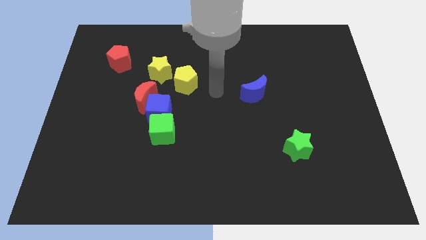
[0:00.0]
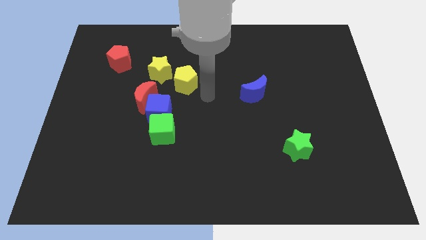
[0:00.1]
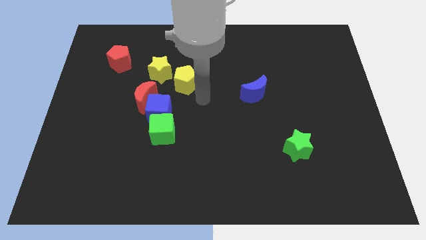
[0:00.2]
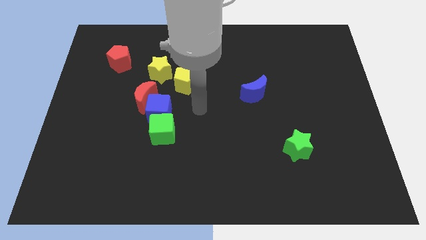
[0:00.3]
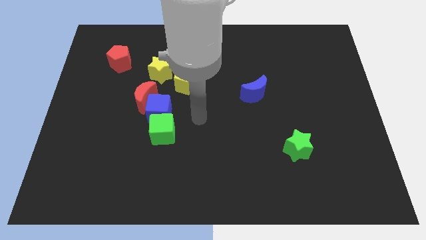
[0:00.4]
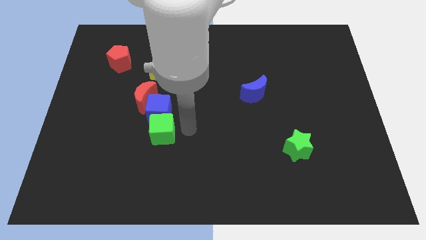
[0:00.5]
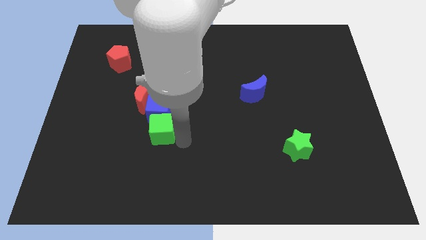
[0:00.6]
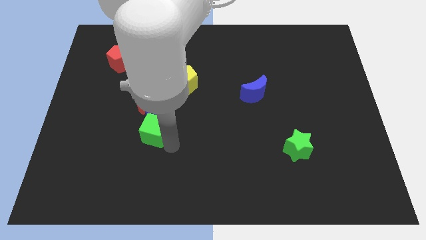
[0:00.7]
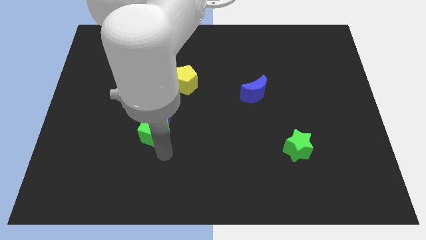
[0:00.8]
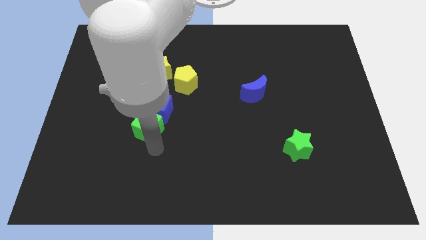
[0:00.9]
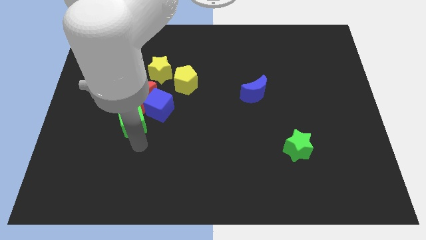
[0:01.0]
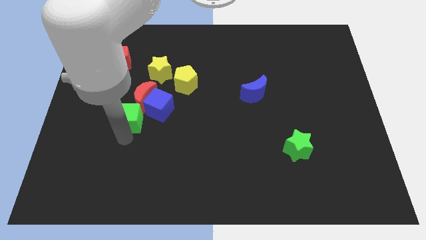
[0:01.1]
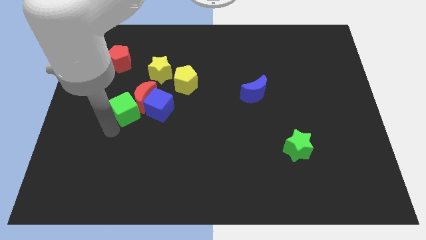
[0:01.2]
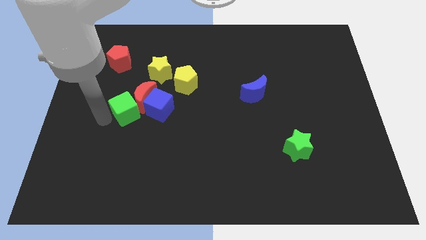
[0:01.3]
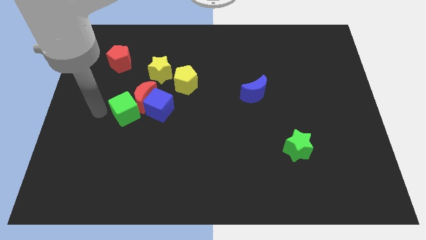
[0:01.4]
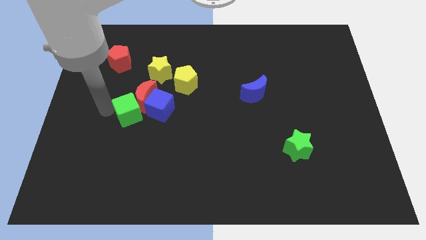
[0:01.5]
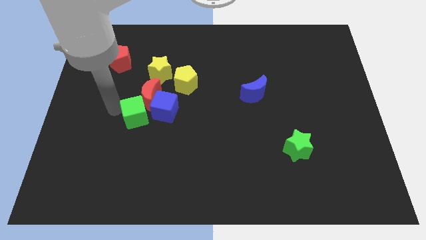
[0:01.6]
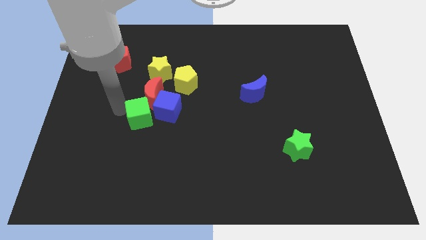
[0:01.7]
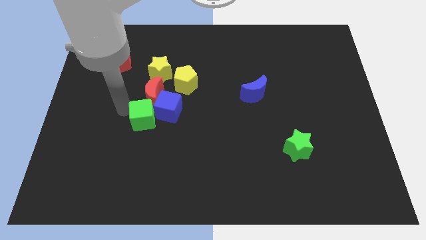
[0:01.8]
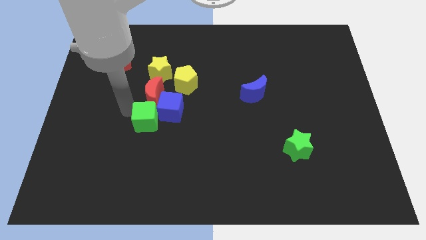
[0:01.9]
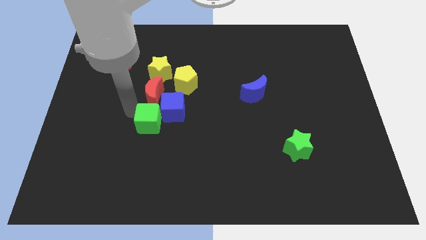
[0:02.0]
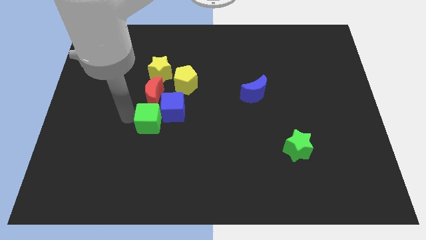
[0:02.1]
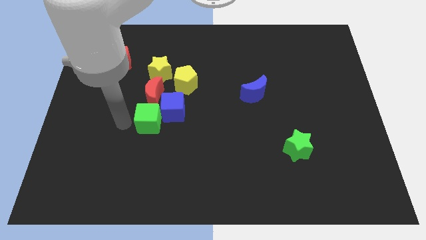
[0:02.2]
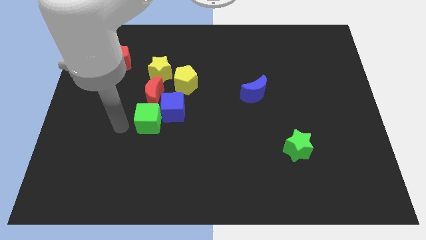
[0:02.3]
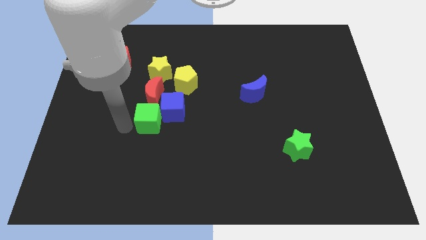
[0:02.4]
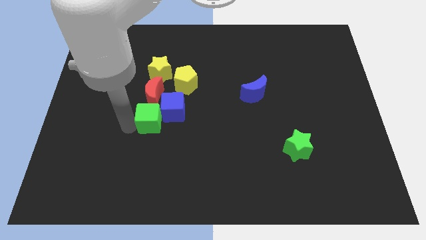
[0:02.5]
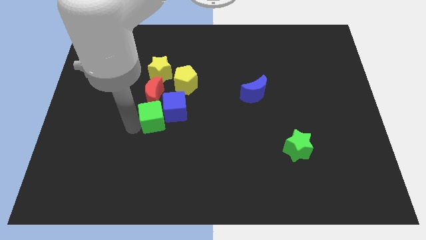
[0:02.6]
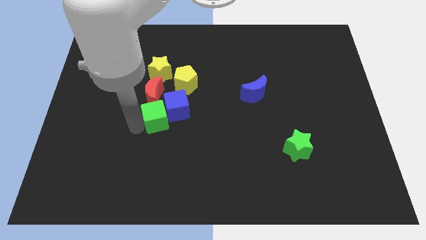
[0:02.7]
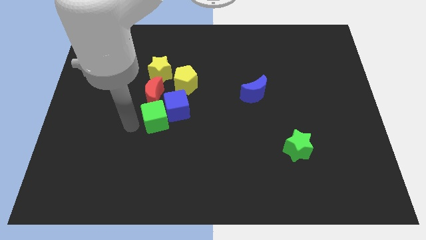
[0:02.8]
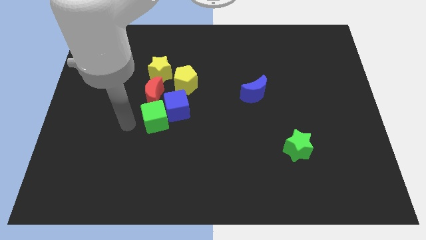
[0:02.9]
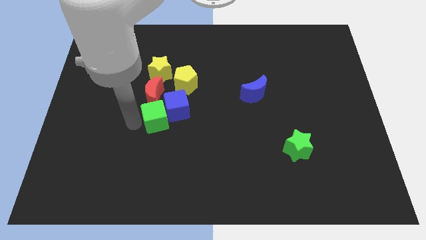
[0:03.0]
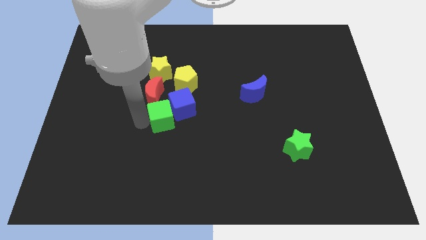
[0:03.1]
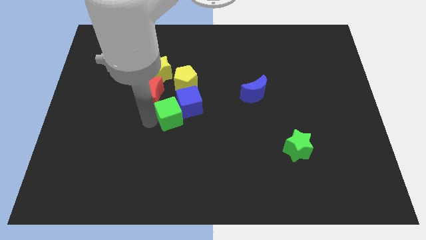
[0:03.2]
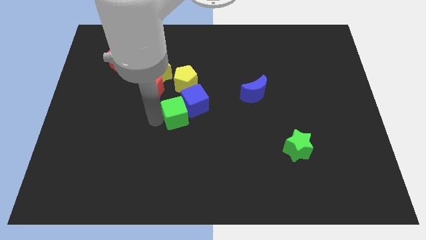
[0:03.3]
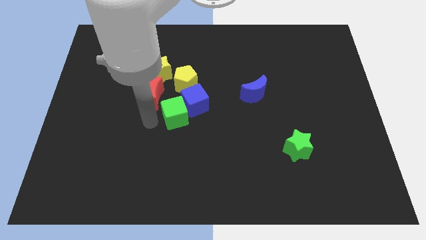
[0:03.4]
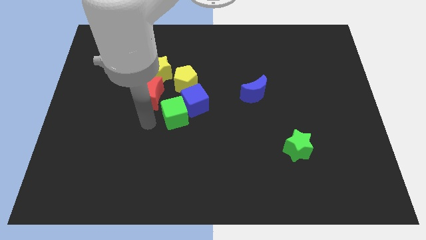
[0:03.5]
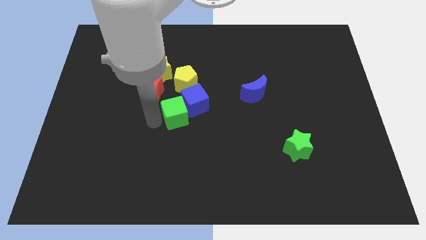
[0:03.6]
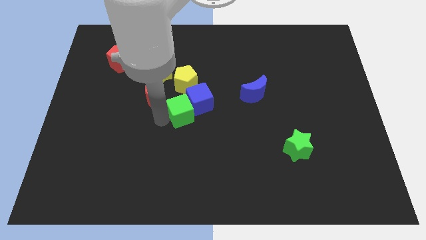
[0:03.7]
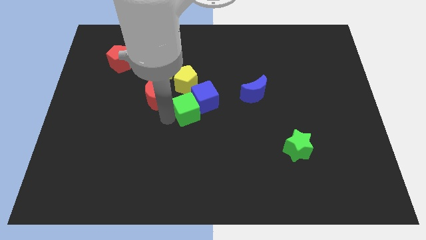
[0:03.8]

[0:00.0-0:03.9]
move the green cube up and to the right diagonally somewhat

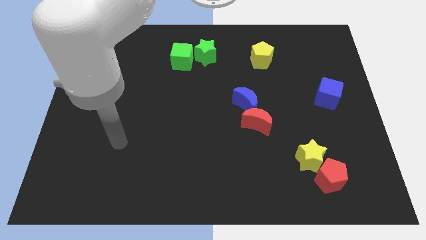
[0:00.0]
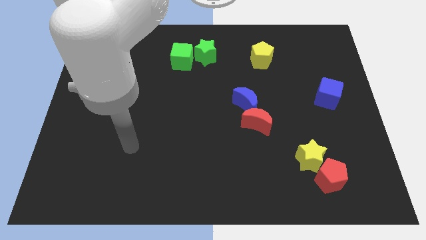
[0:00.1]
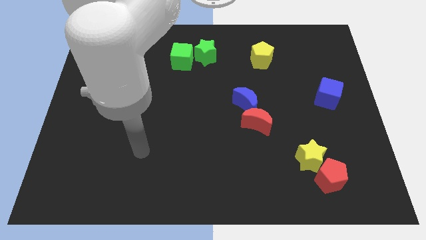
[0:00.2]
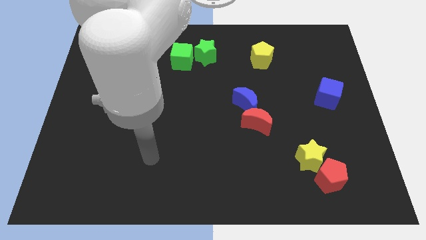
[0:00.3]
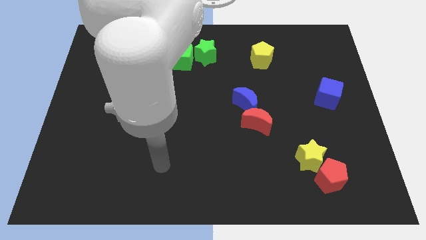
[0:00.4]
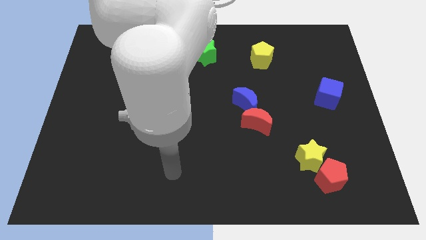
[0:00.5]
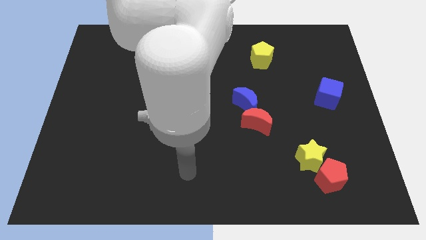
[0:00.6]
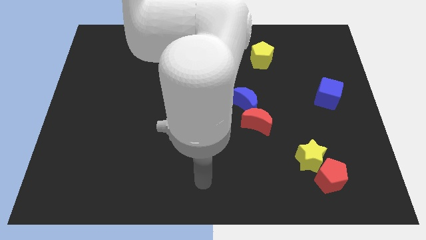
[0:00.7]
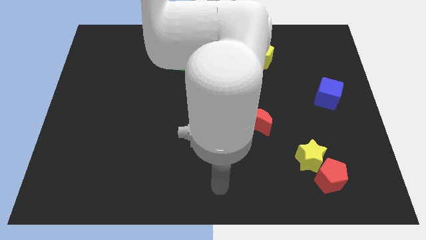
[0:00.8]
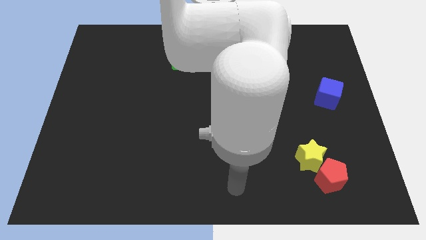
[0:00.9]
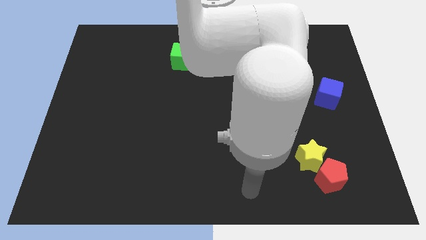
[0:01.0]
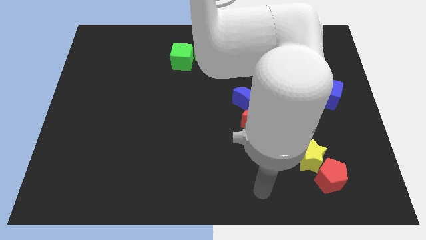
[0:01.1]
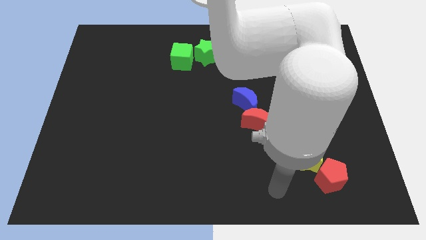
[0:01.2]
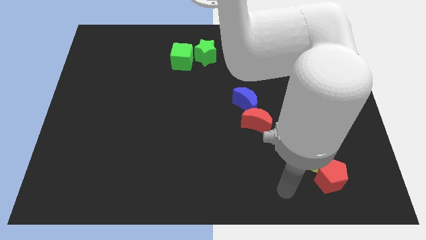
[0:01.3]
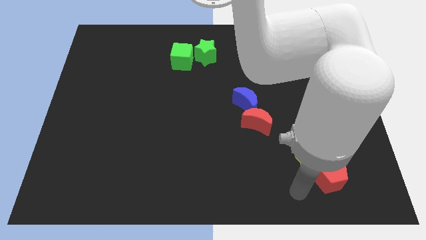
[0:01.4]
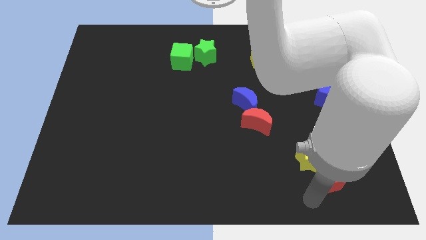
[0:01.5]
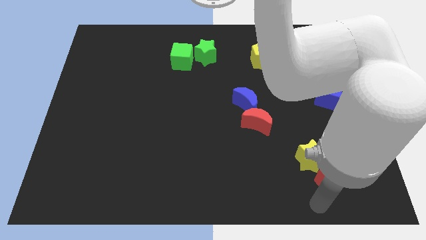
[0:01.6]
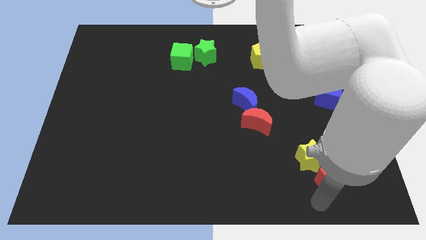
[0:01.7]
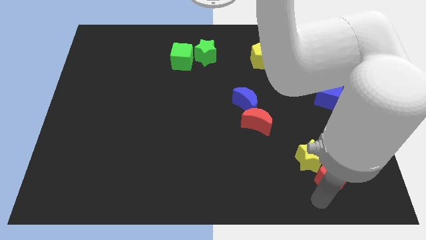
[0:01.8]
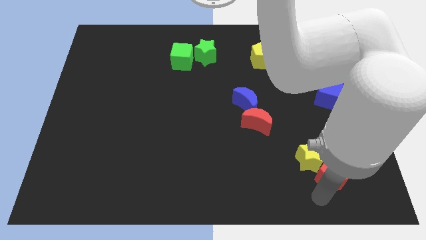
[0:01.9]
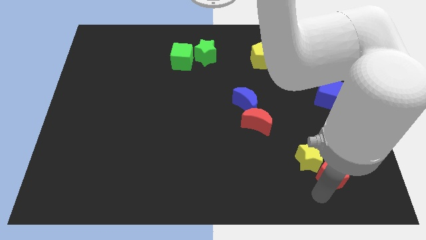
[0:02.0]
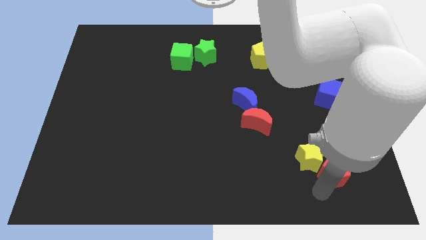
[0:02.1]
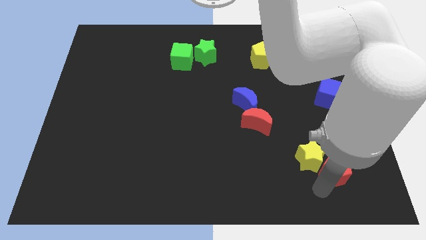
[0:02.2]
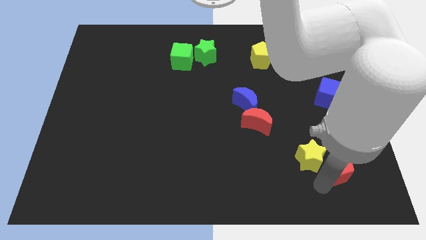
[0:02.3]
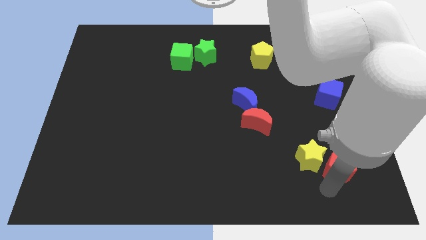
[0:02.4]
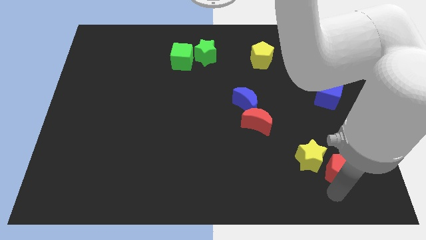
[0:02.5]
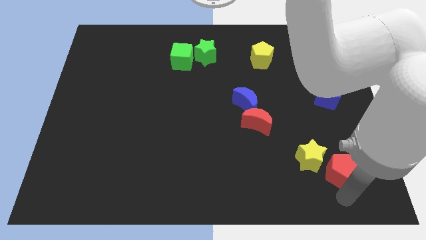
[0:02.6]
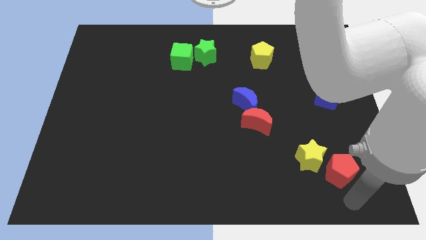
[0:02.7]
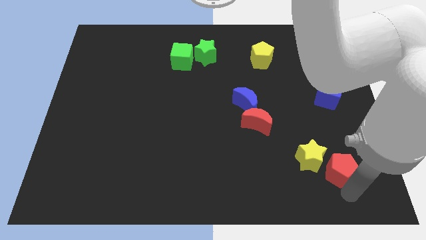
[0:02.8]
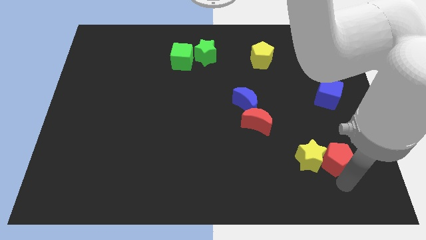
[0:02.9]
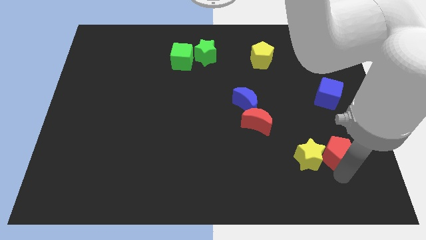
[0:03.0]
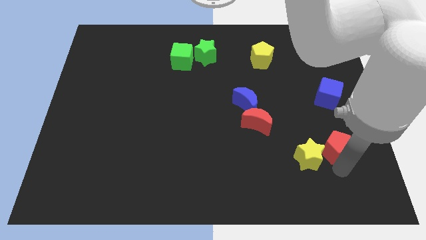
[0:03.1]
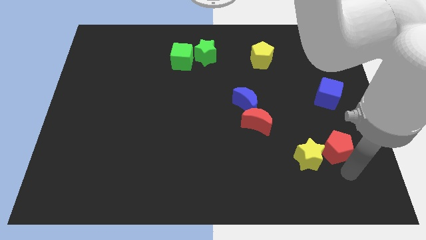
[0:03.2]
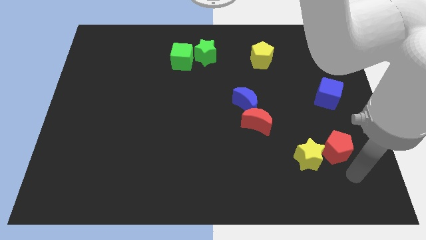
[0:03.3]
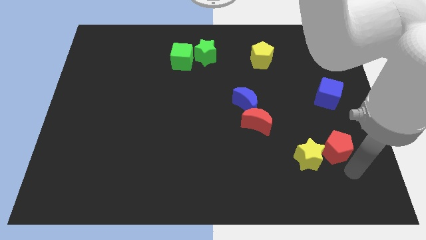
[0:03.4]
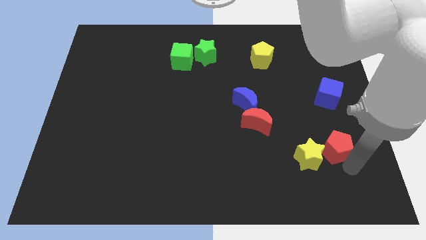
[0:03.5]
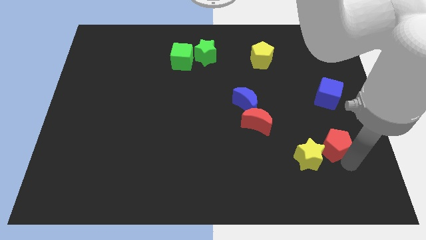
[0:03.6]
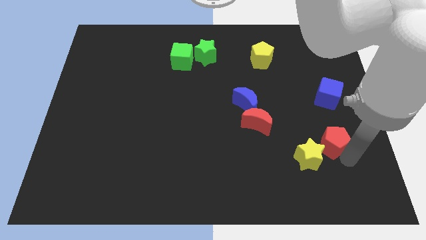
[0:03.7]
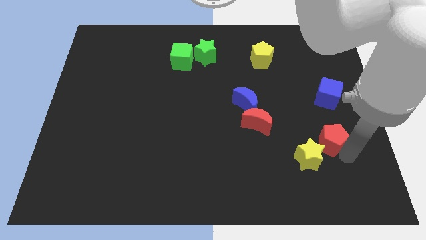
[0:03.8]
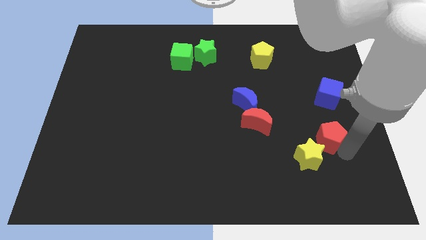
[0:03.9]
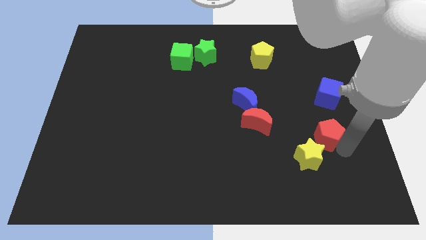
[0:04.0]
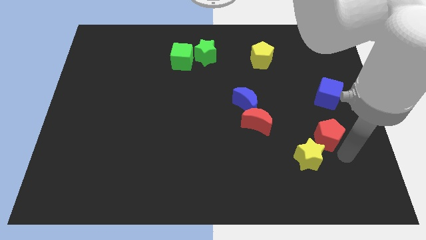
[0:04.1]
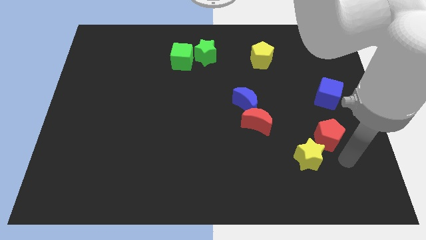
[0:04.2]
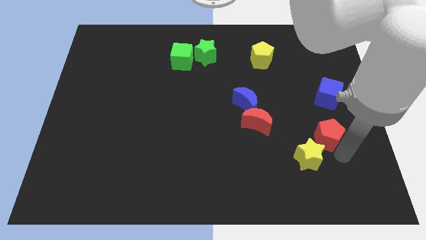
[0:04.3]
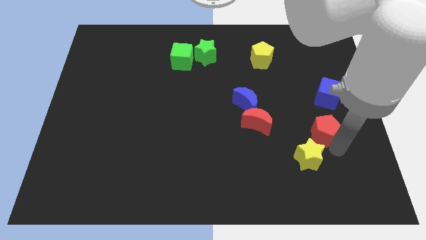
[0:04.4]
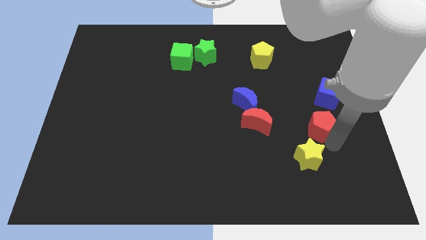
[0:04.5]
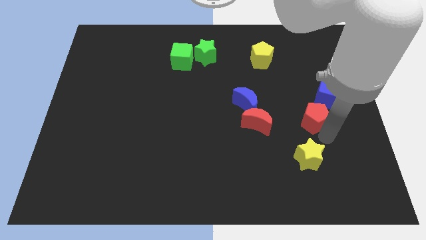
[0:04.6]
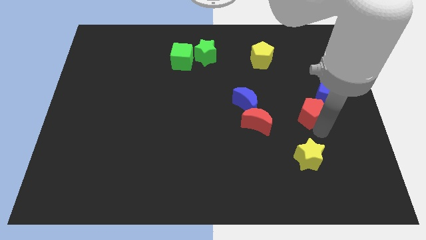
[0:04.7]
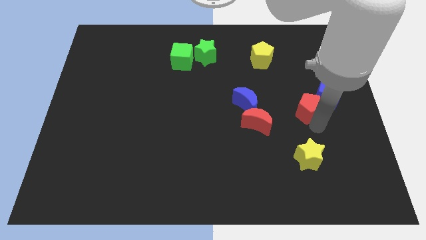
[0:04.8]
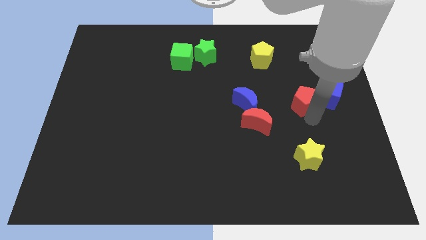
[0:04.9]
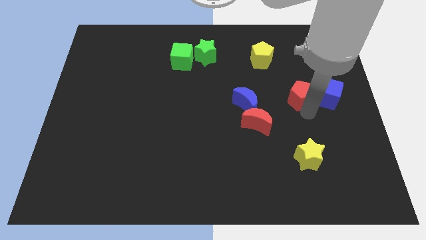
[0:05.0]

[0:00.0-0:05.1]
push the red pentagon up
